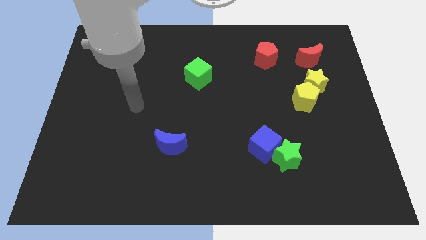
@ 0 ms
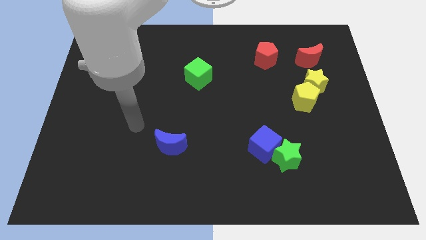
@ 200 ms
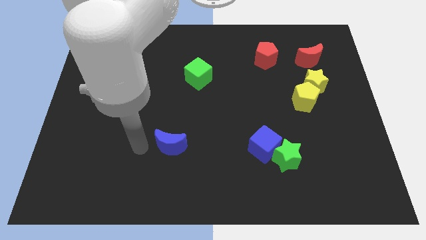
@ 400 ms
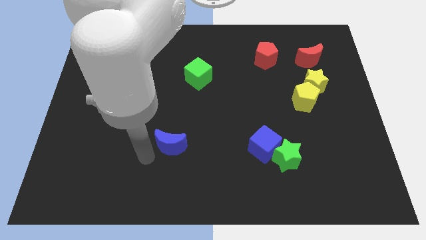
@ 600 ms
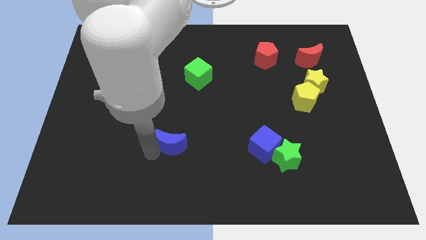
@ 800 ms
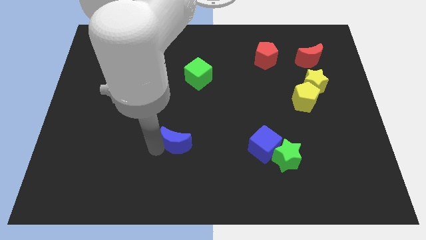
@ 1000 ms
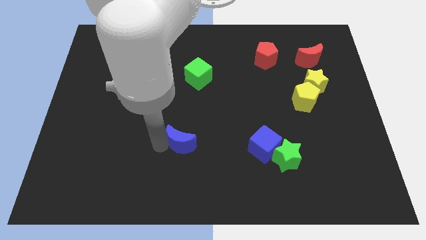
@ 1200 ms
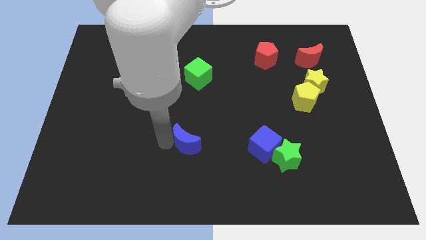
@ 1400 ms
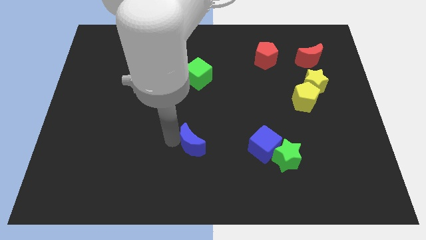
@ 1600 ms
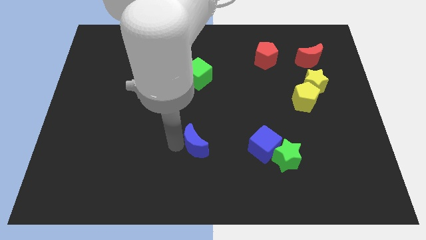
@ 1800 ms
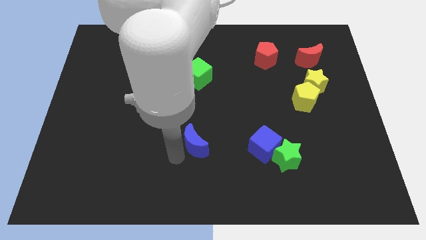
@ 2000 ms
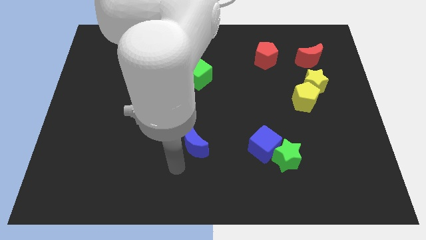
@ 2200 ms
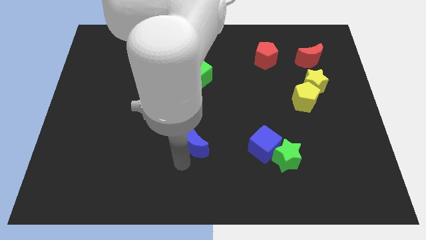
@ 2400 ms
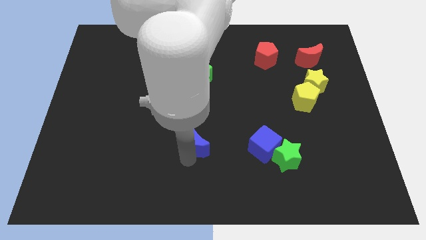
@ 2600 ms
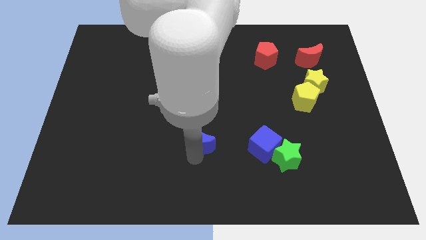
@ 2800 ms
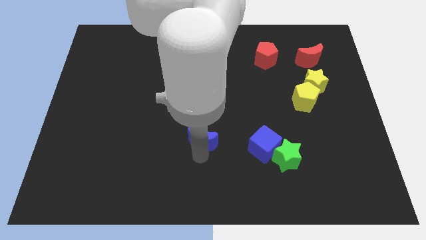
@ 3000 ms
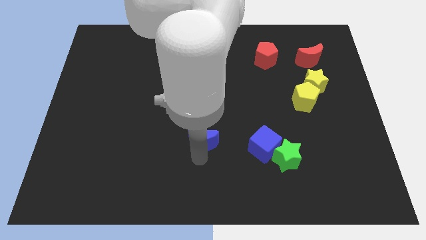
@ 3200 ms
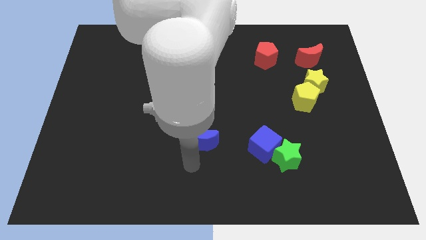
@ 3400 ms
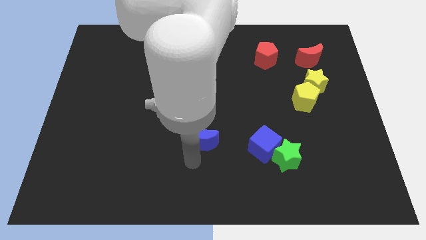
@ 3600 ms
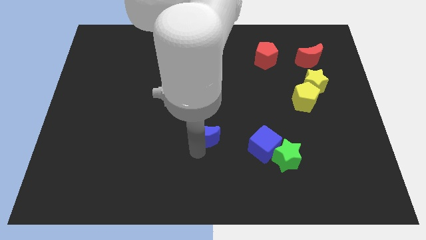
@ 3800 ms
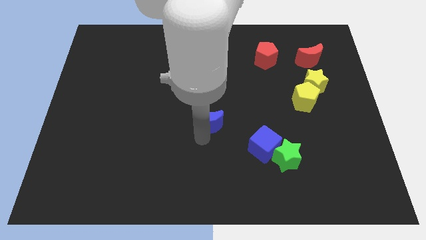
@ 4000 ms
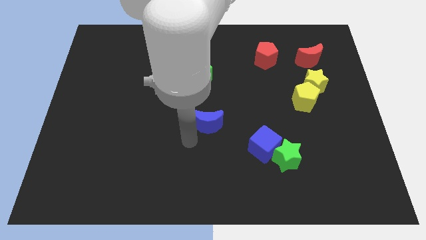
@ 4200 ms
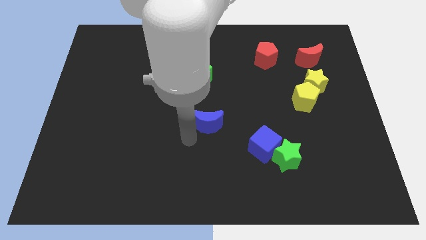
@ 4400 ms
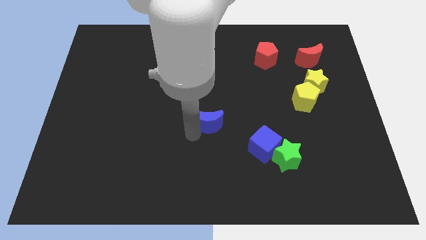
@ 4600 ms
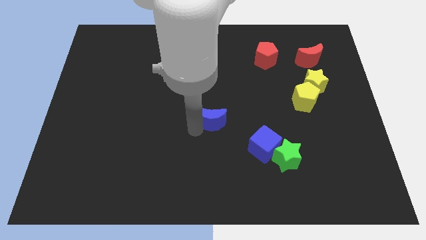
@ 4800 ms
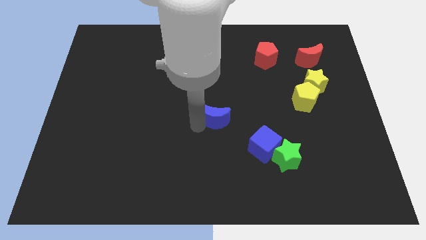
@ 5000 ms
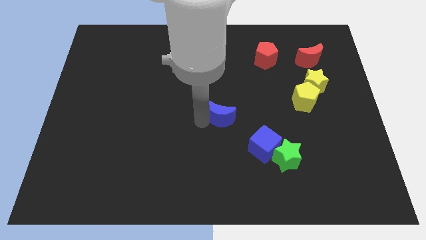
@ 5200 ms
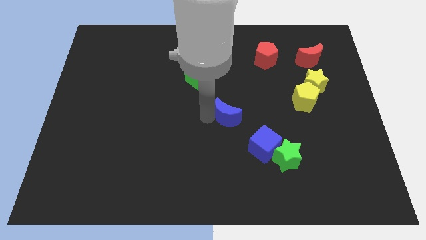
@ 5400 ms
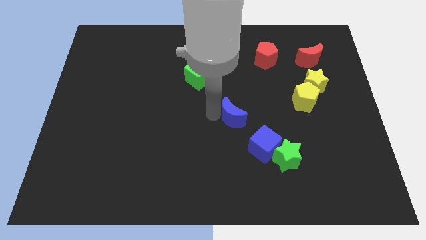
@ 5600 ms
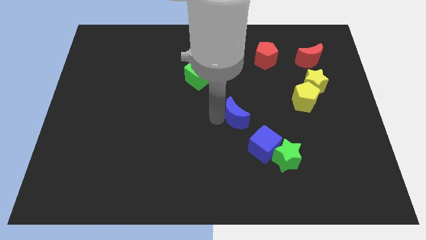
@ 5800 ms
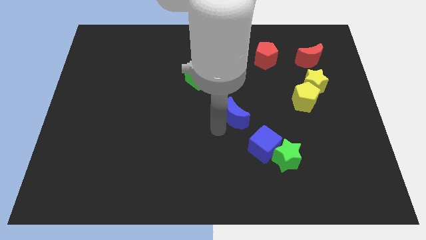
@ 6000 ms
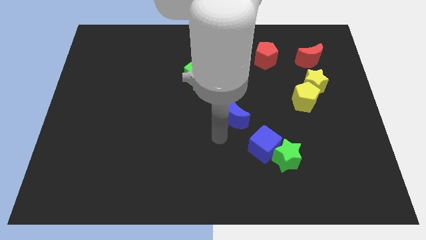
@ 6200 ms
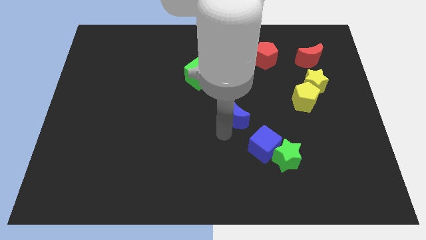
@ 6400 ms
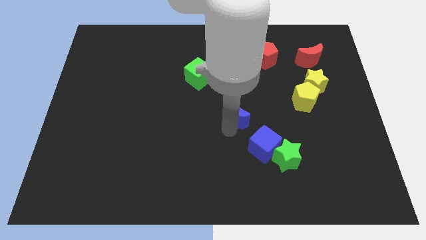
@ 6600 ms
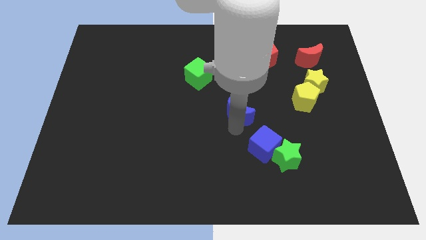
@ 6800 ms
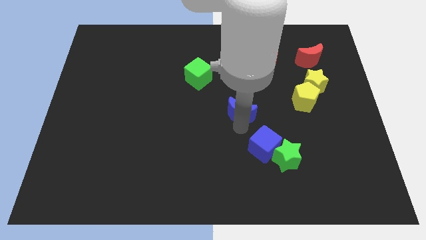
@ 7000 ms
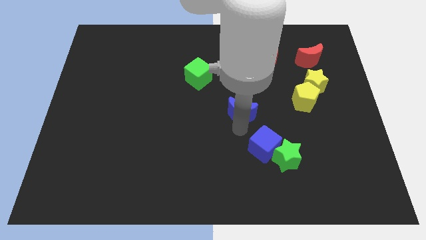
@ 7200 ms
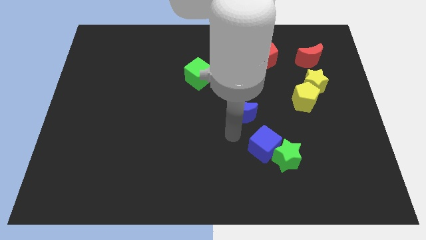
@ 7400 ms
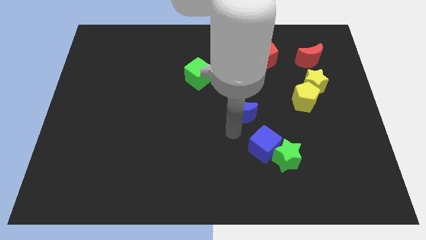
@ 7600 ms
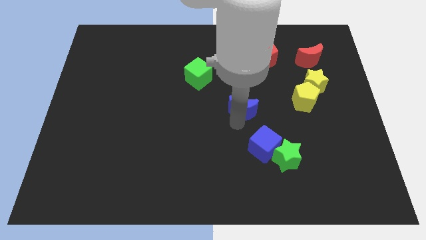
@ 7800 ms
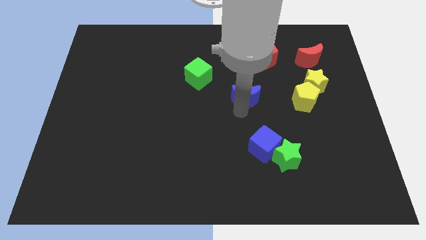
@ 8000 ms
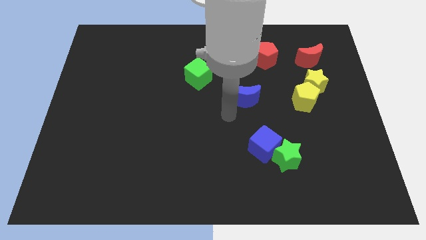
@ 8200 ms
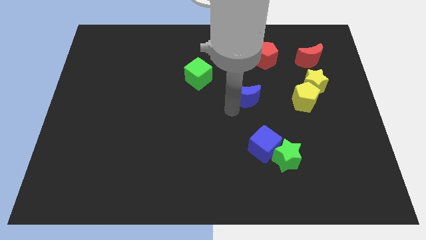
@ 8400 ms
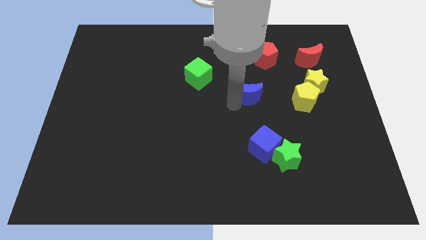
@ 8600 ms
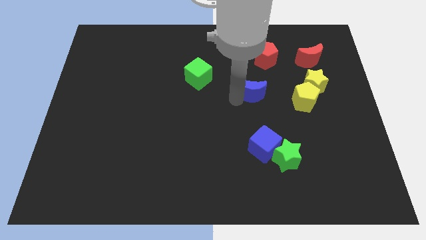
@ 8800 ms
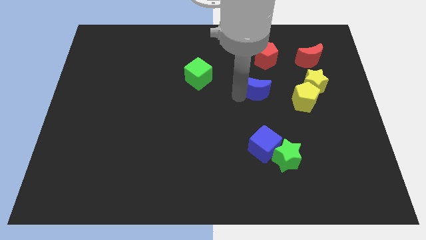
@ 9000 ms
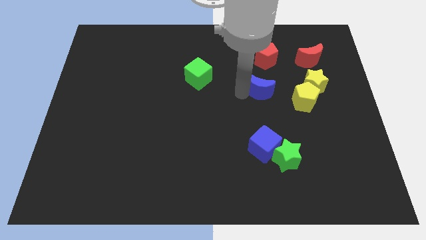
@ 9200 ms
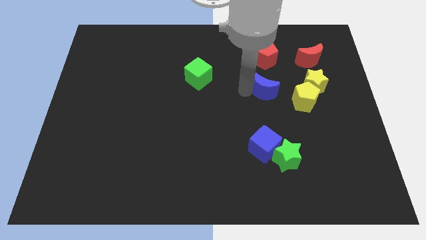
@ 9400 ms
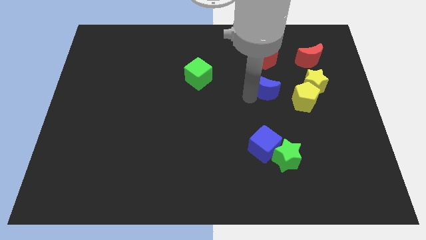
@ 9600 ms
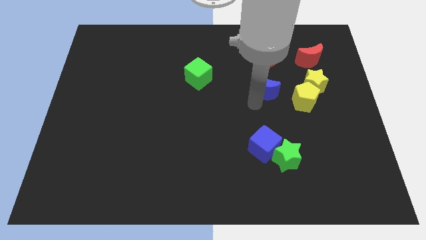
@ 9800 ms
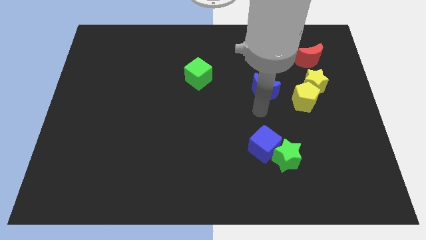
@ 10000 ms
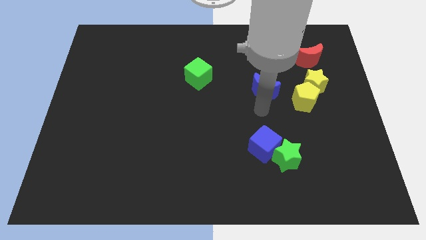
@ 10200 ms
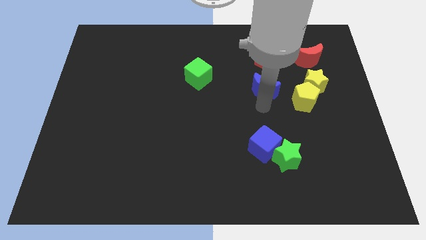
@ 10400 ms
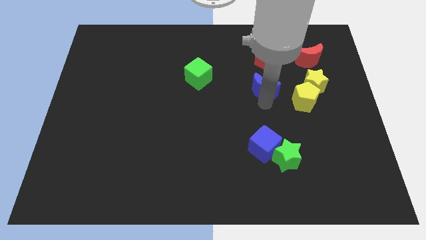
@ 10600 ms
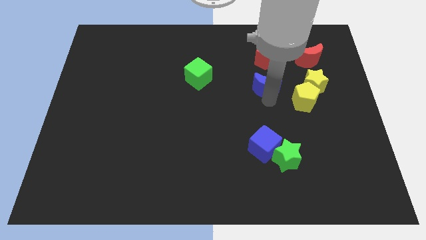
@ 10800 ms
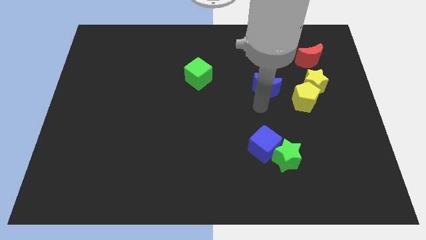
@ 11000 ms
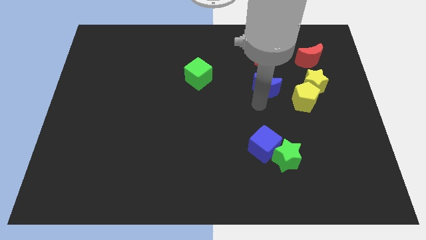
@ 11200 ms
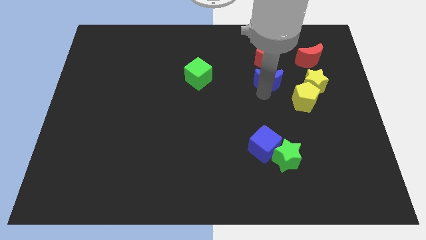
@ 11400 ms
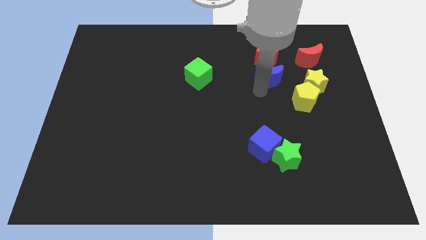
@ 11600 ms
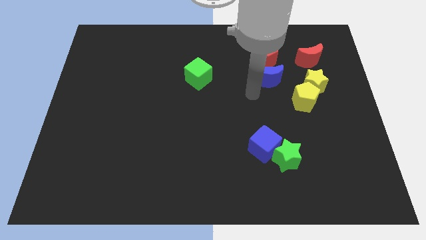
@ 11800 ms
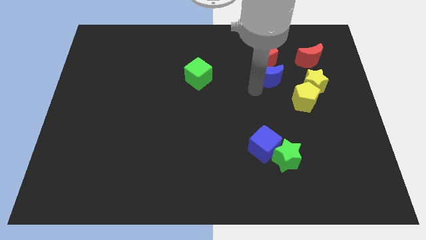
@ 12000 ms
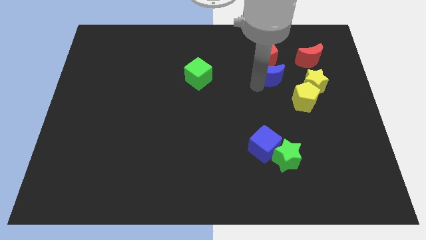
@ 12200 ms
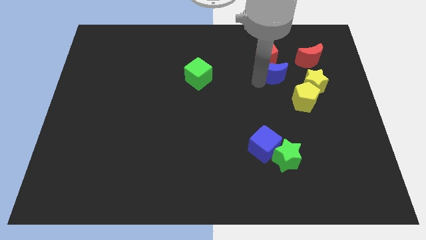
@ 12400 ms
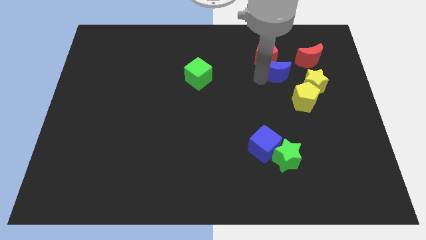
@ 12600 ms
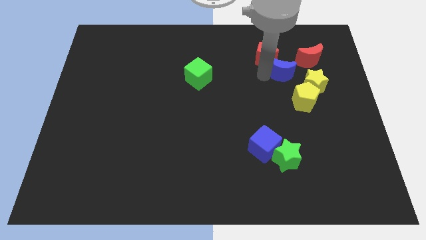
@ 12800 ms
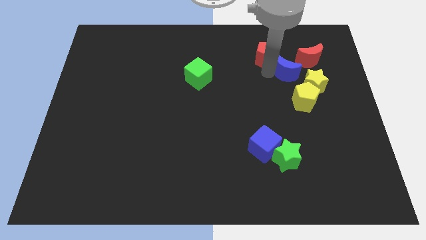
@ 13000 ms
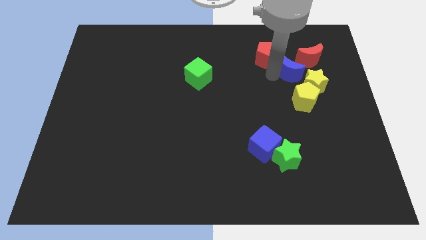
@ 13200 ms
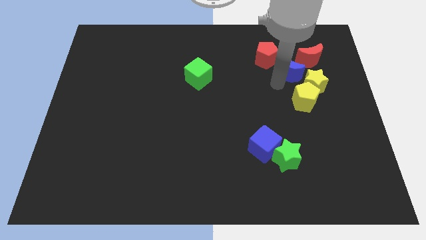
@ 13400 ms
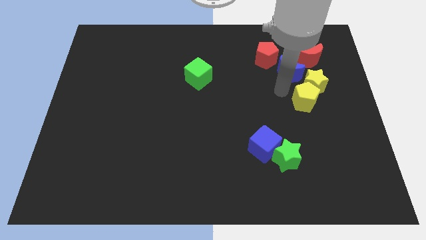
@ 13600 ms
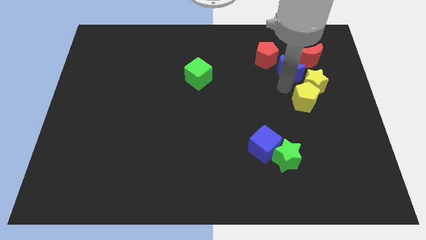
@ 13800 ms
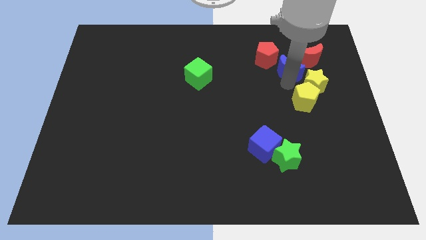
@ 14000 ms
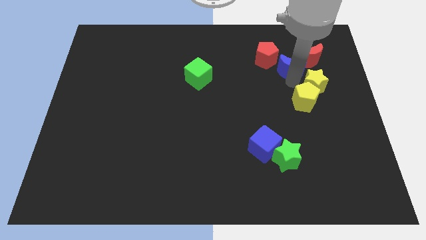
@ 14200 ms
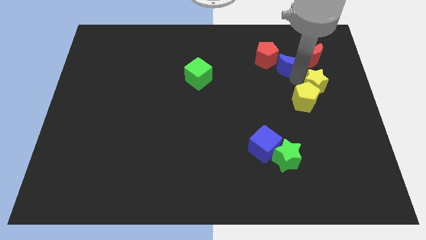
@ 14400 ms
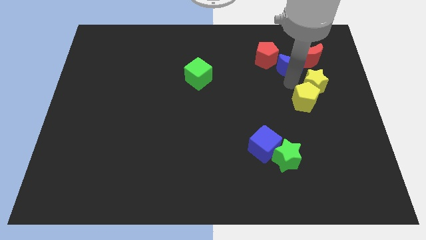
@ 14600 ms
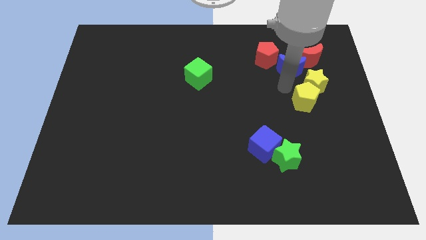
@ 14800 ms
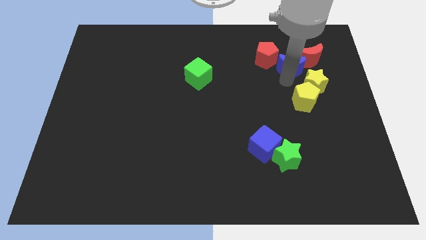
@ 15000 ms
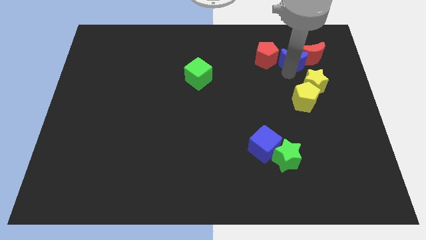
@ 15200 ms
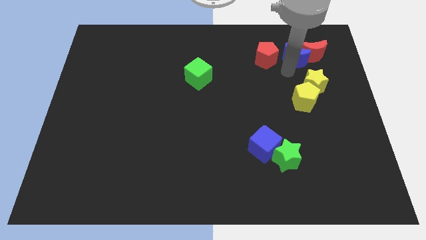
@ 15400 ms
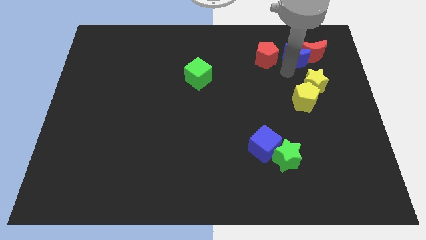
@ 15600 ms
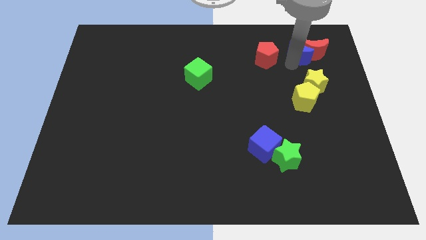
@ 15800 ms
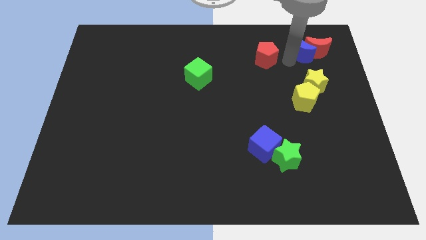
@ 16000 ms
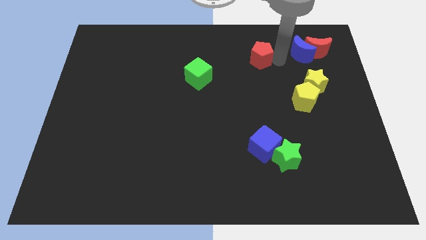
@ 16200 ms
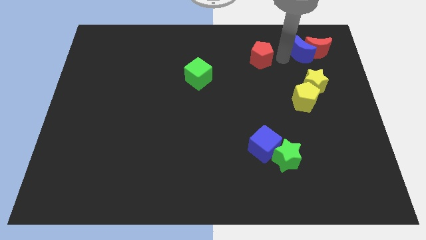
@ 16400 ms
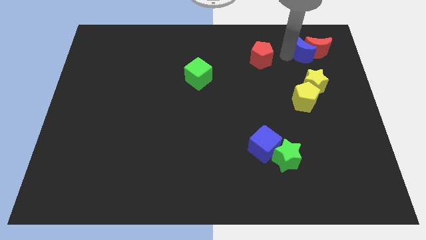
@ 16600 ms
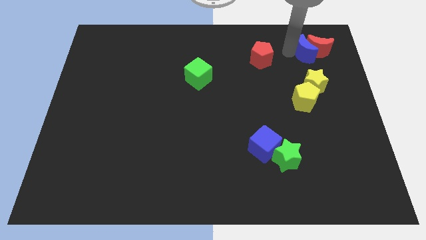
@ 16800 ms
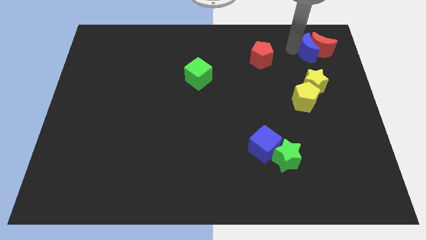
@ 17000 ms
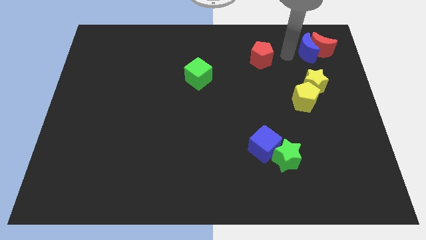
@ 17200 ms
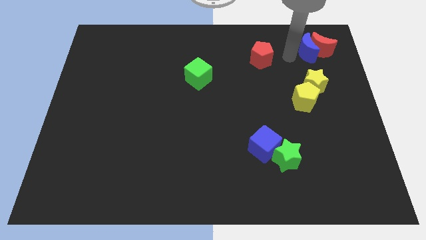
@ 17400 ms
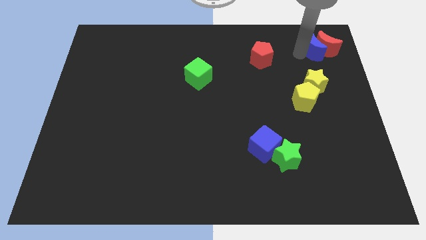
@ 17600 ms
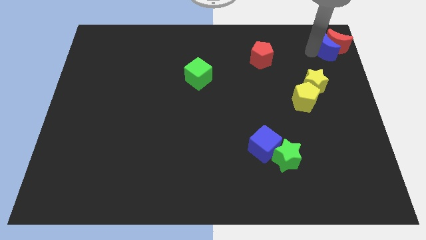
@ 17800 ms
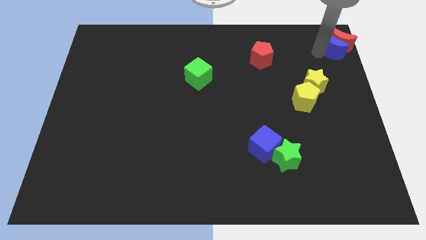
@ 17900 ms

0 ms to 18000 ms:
put the blue moon to the top right
